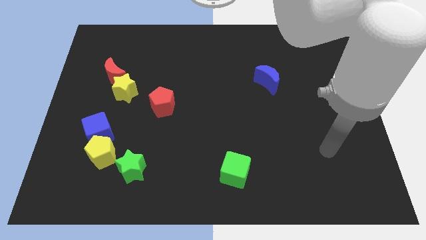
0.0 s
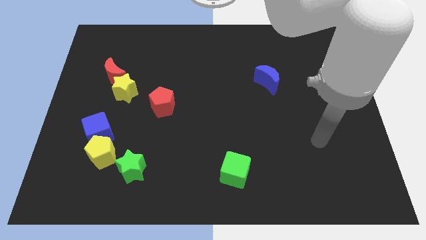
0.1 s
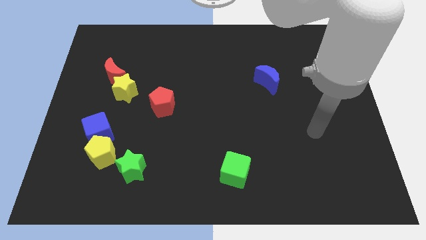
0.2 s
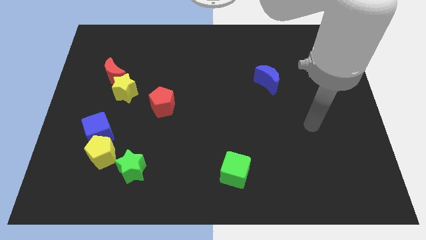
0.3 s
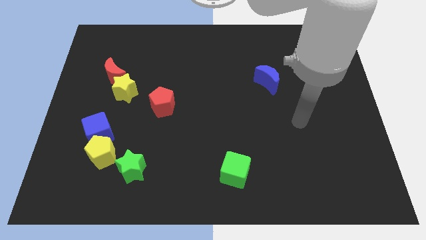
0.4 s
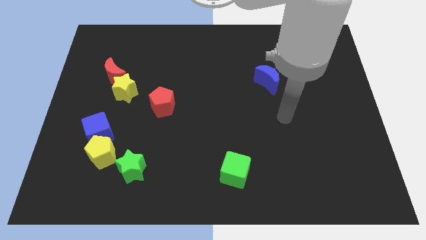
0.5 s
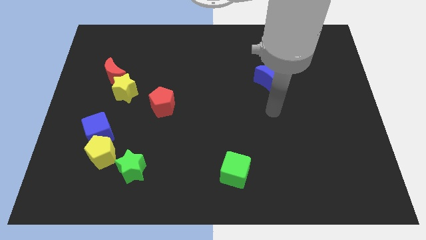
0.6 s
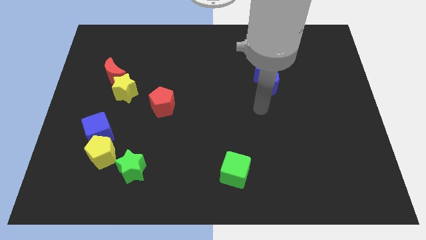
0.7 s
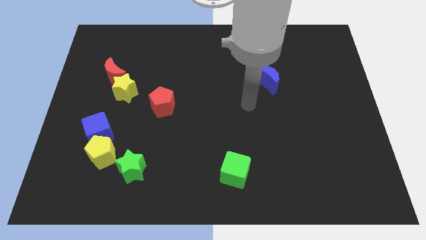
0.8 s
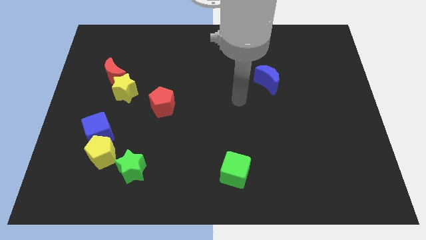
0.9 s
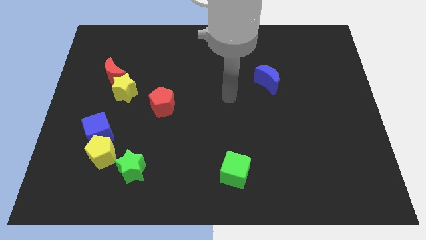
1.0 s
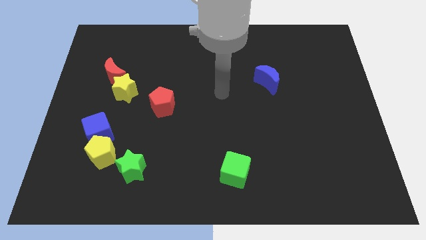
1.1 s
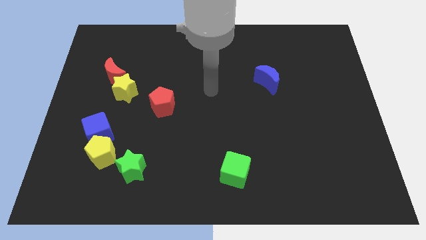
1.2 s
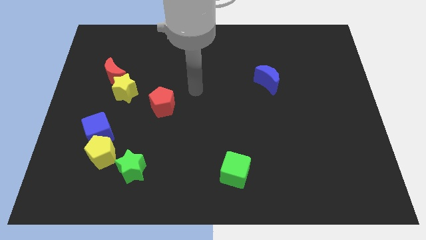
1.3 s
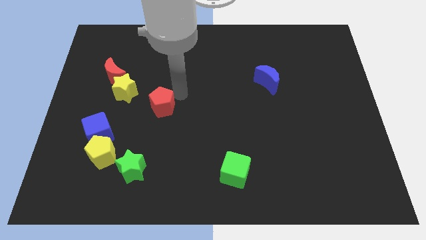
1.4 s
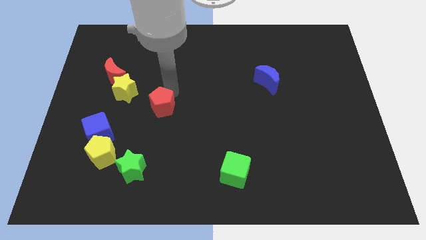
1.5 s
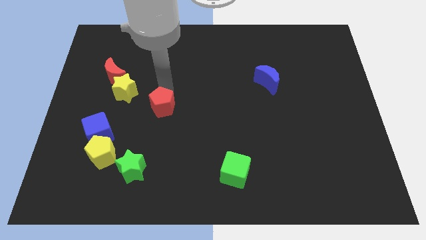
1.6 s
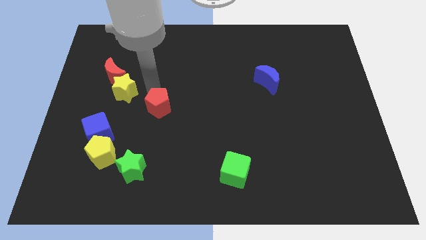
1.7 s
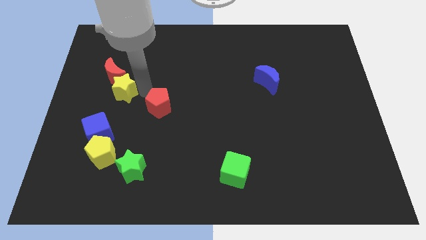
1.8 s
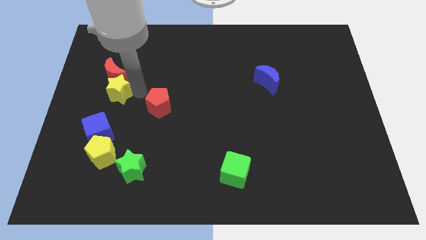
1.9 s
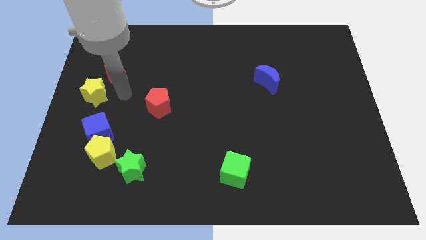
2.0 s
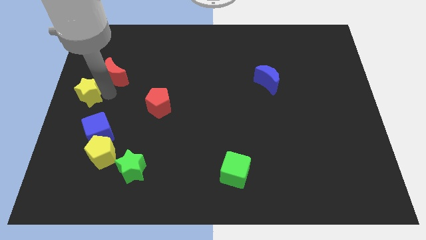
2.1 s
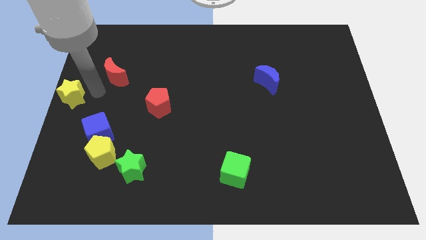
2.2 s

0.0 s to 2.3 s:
pull the red moon apart from the yellow star

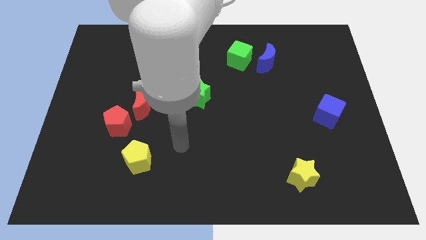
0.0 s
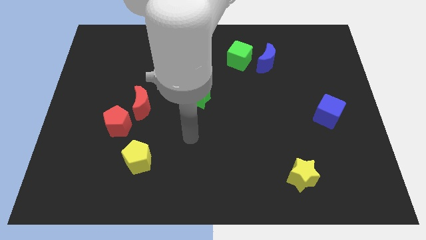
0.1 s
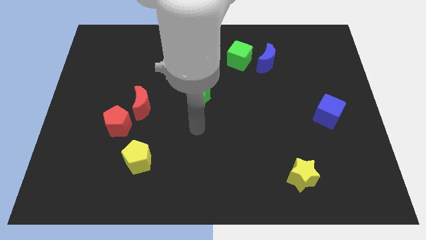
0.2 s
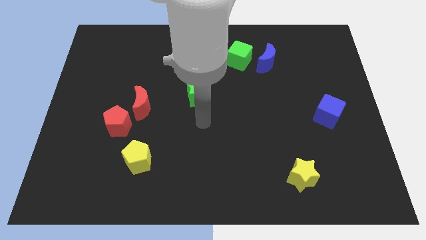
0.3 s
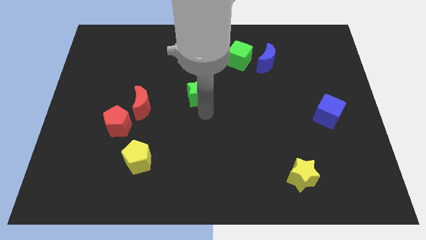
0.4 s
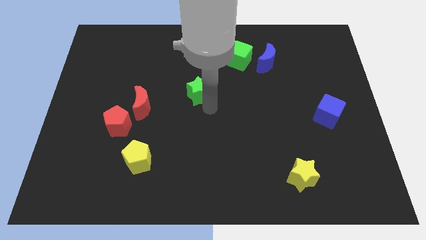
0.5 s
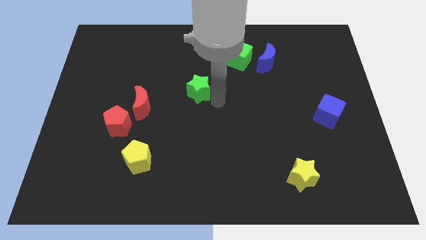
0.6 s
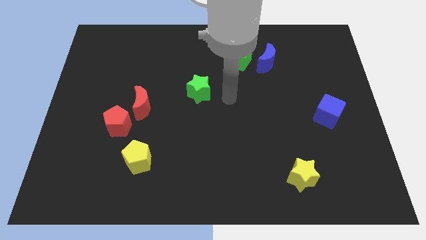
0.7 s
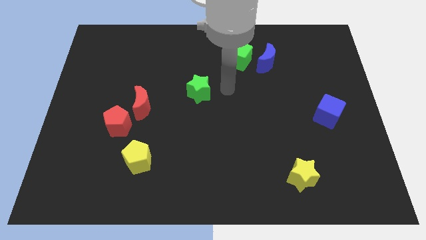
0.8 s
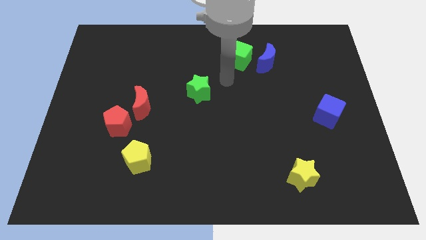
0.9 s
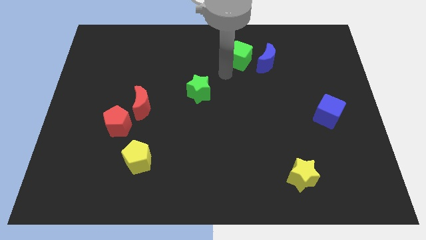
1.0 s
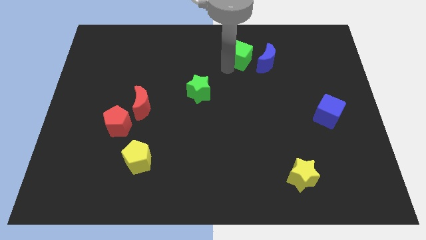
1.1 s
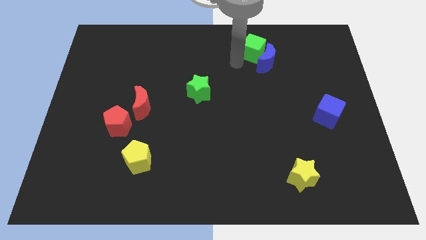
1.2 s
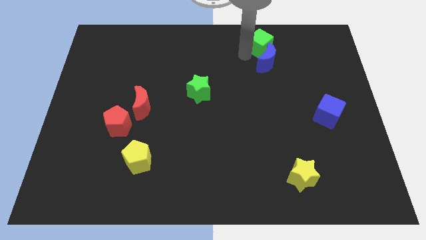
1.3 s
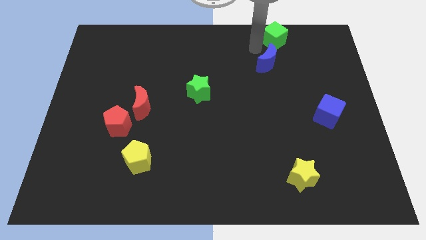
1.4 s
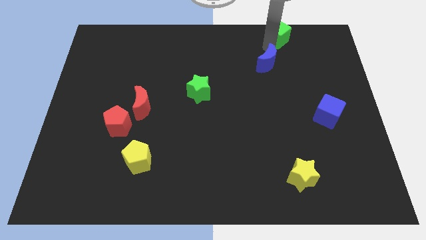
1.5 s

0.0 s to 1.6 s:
move the blue moon away from the green cube

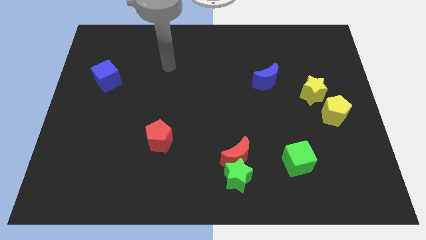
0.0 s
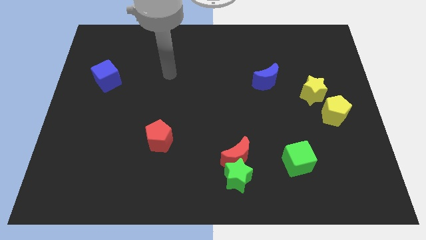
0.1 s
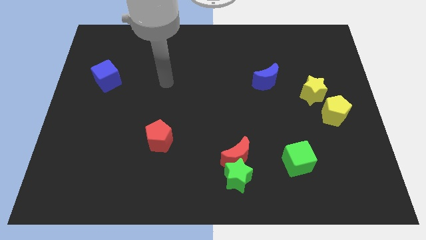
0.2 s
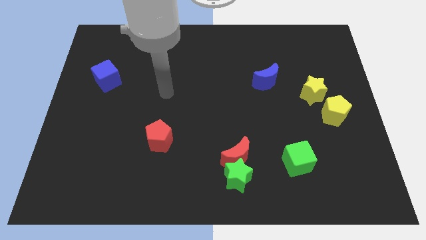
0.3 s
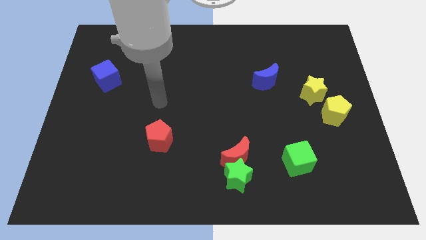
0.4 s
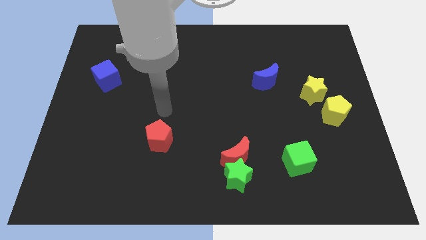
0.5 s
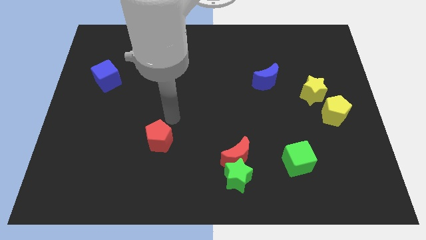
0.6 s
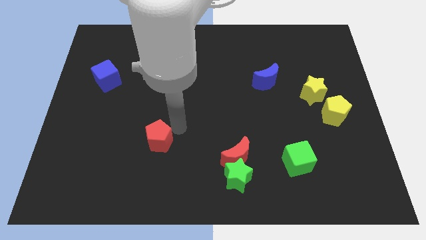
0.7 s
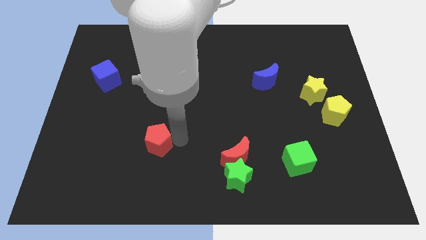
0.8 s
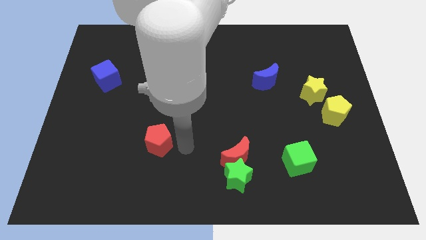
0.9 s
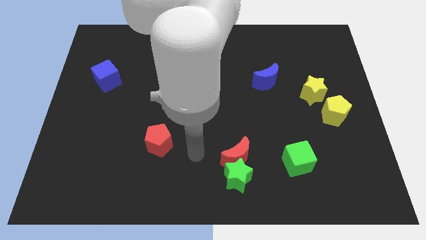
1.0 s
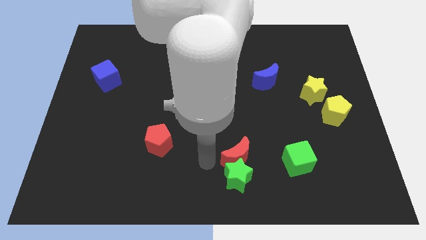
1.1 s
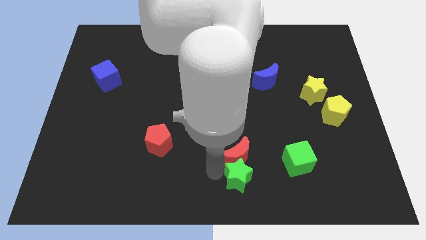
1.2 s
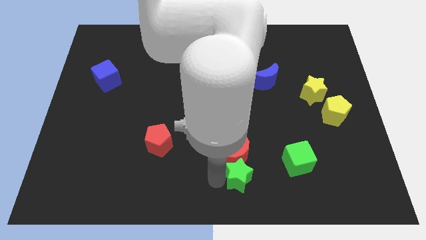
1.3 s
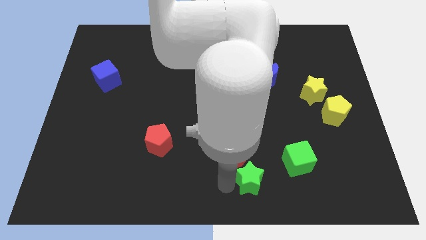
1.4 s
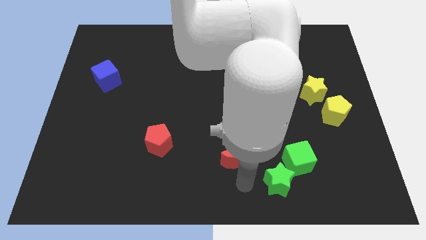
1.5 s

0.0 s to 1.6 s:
separate the red moon from the green star

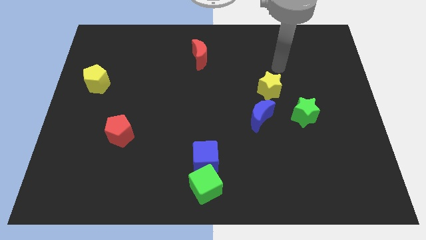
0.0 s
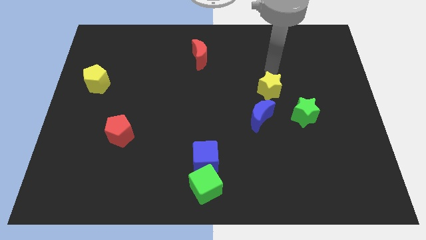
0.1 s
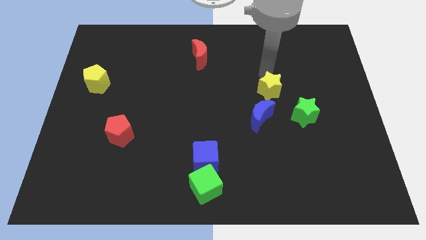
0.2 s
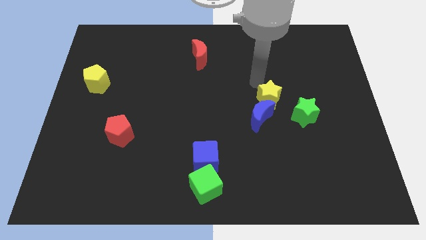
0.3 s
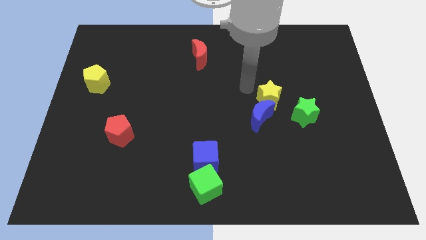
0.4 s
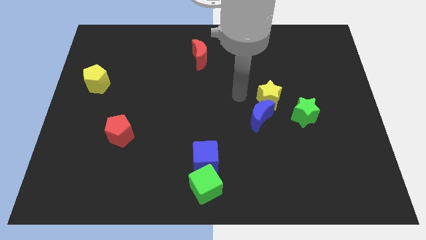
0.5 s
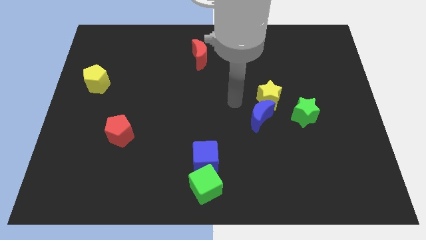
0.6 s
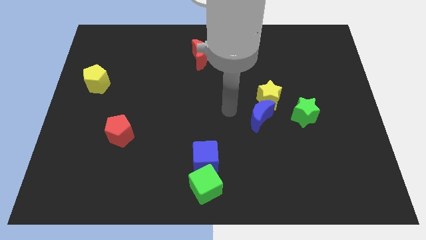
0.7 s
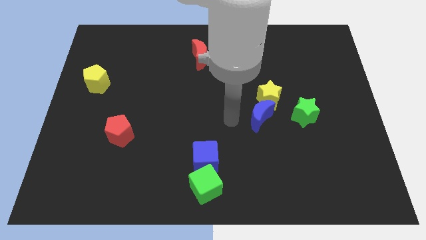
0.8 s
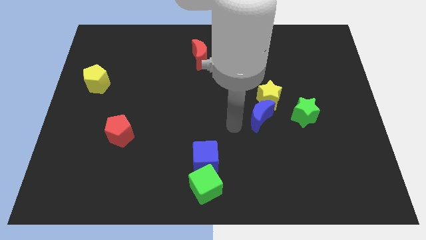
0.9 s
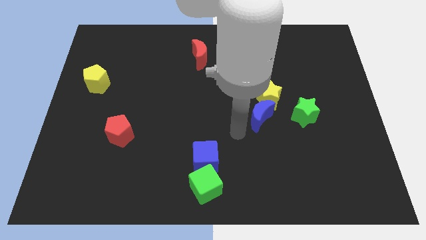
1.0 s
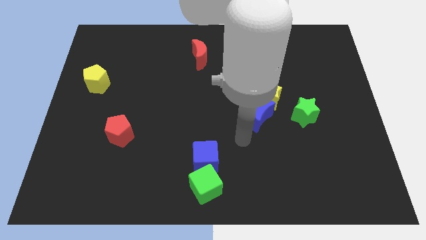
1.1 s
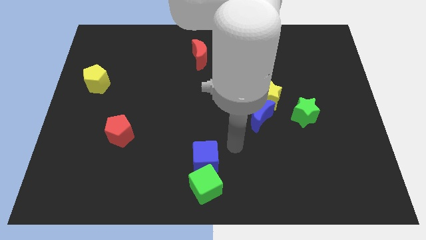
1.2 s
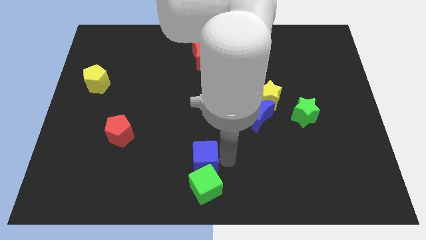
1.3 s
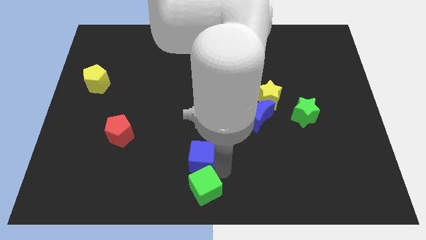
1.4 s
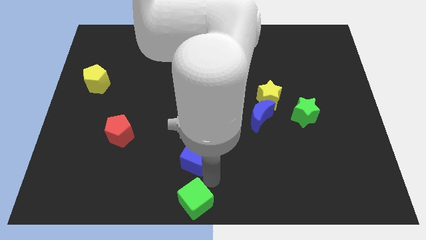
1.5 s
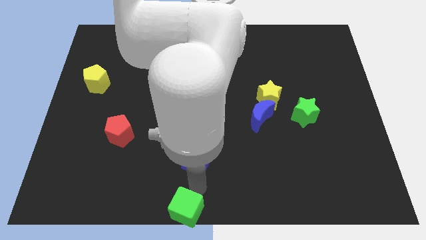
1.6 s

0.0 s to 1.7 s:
separate the blue cube from the green cube

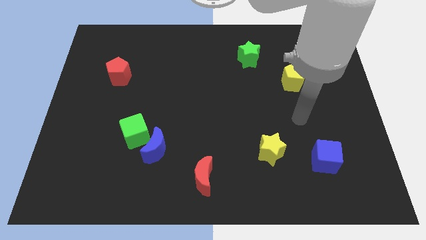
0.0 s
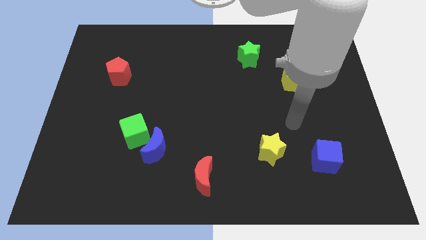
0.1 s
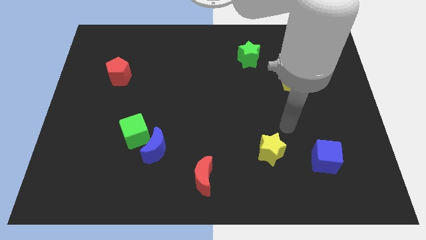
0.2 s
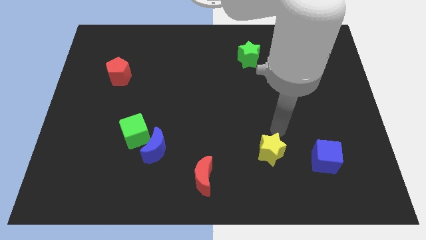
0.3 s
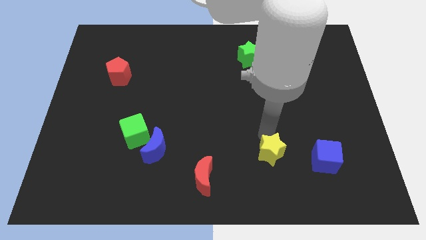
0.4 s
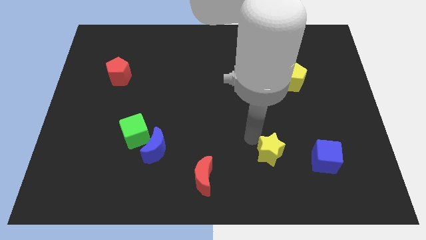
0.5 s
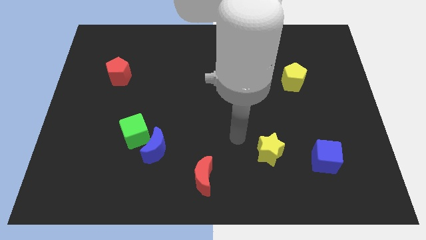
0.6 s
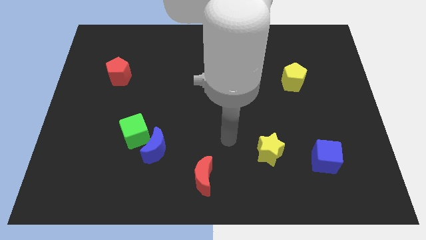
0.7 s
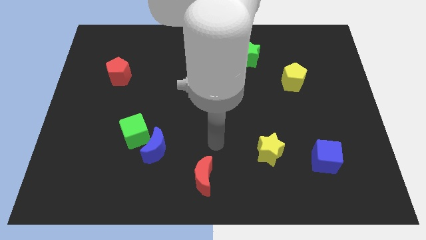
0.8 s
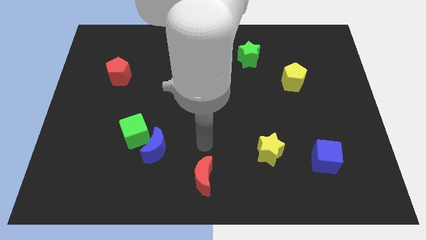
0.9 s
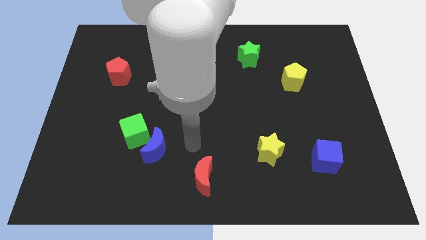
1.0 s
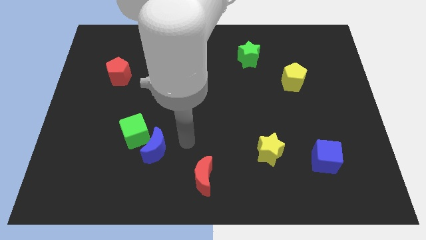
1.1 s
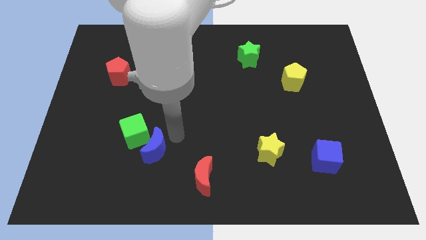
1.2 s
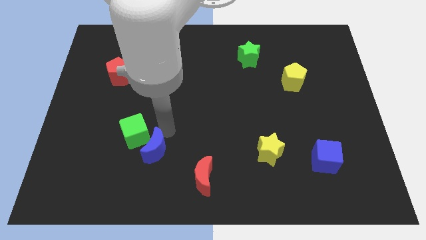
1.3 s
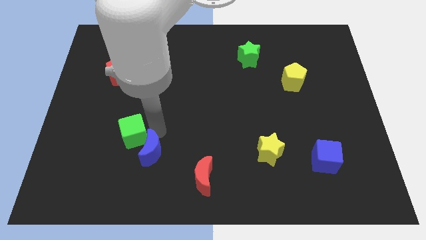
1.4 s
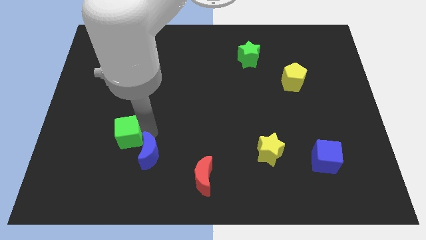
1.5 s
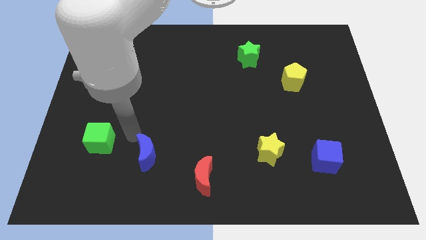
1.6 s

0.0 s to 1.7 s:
pull the blue moon apart from the green cube

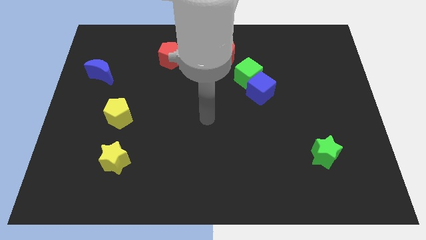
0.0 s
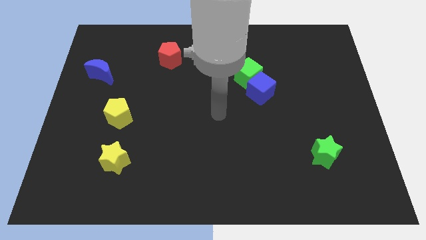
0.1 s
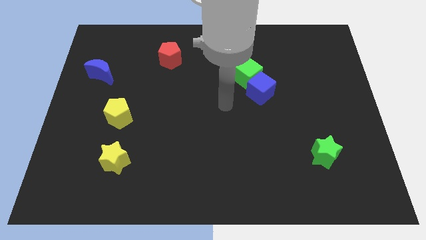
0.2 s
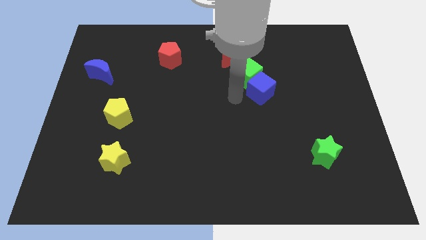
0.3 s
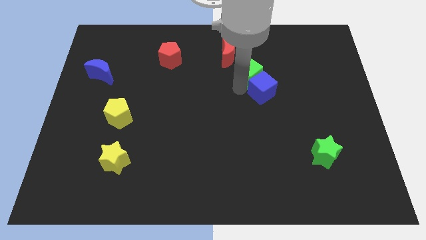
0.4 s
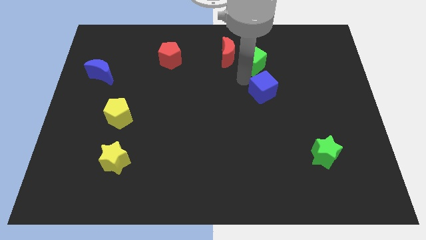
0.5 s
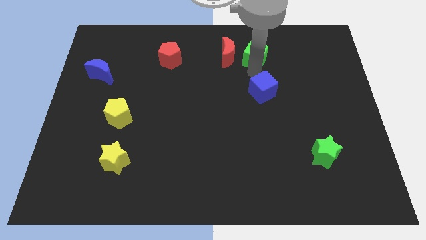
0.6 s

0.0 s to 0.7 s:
pull the blue cube apart from the green cube
